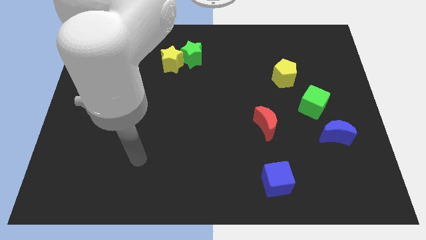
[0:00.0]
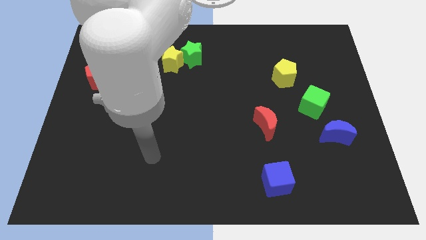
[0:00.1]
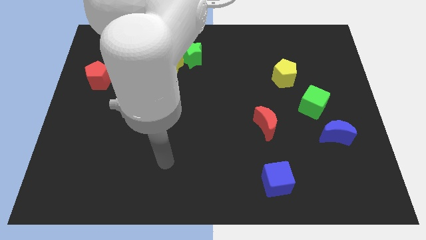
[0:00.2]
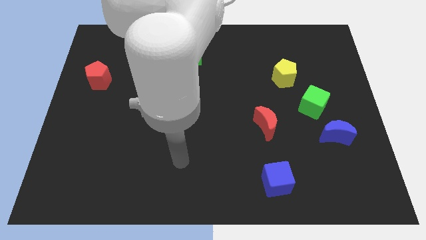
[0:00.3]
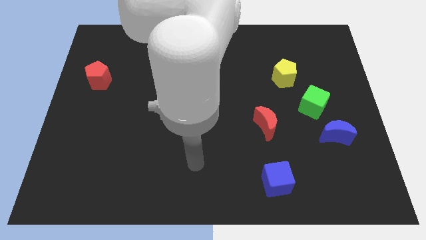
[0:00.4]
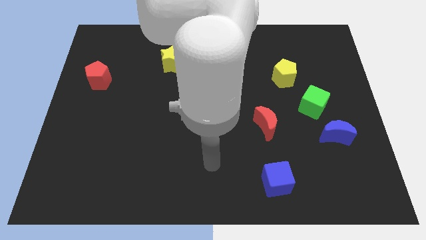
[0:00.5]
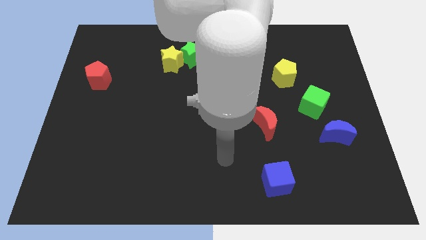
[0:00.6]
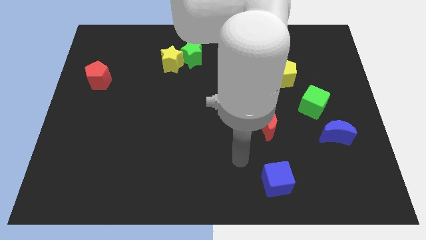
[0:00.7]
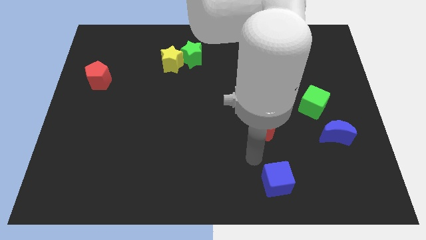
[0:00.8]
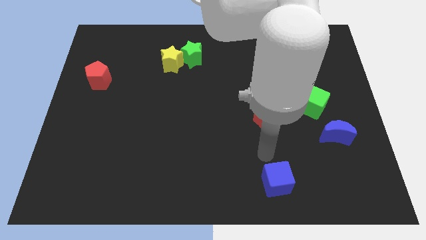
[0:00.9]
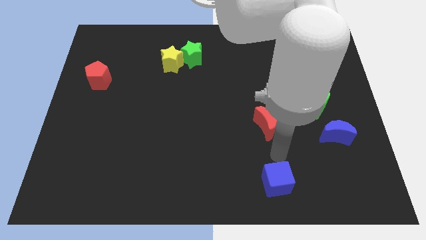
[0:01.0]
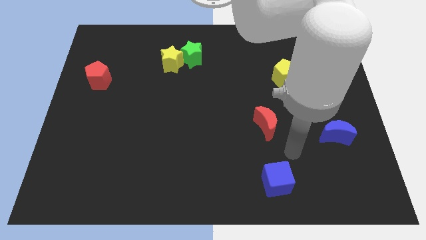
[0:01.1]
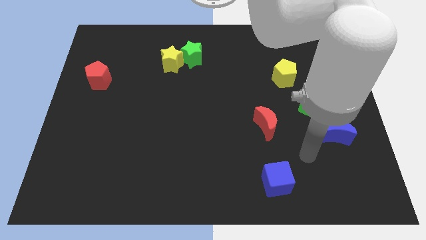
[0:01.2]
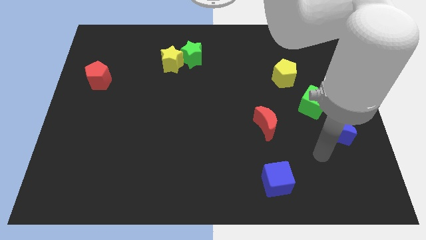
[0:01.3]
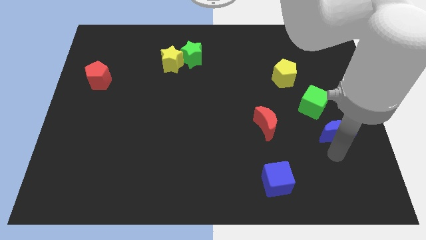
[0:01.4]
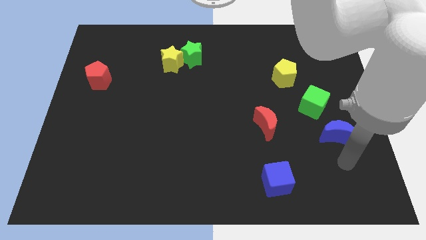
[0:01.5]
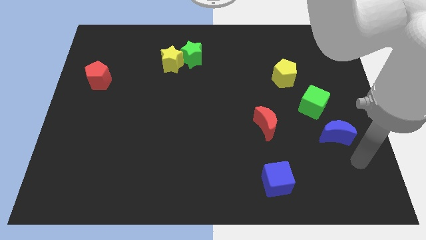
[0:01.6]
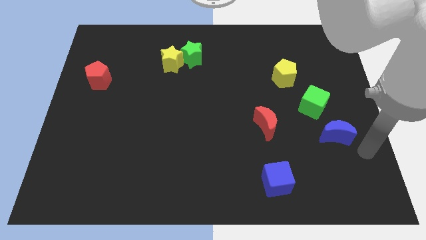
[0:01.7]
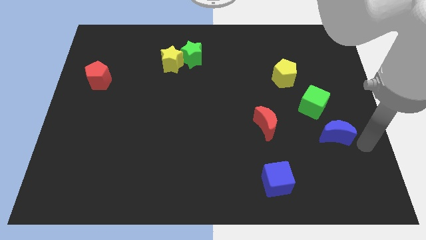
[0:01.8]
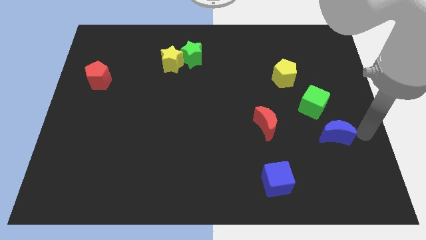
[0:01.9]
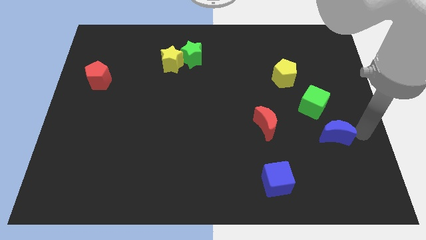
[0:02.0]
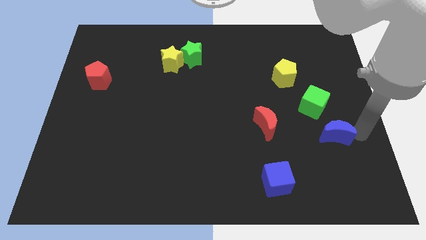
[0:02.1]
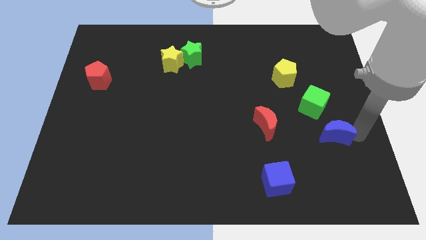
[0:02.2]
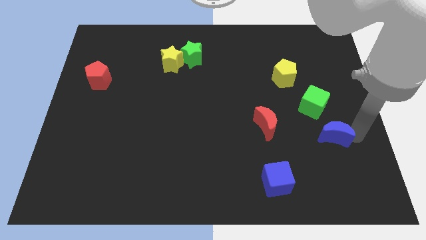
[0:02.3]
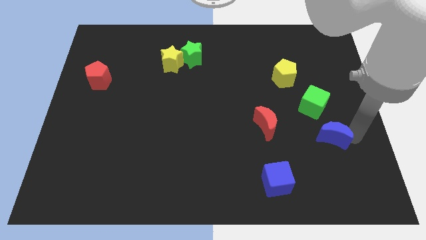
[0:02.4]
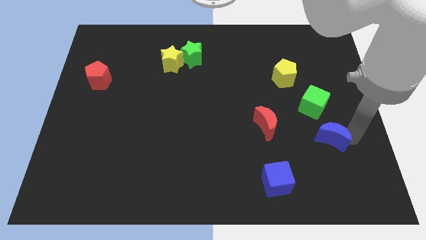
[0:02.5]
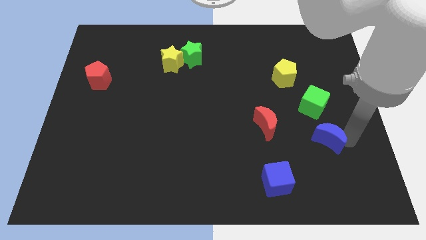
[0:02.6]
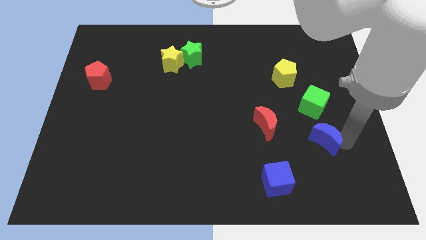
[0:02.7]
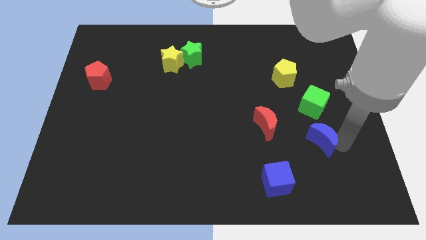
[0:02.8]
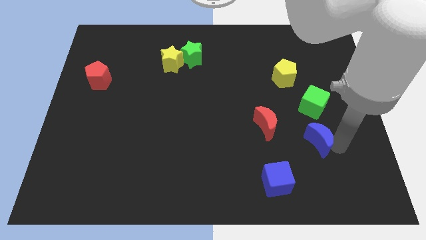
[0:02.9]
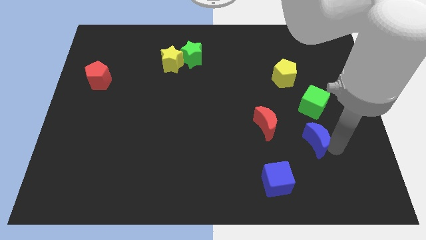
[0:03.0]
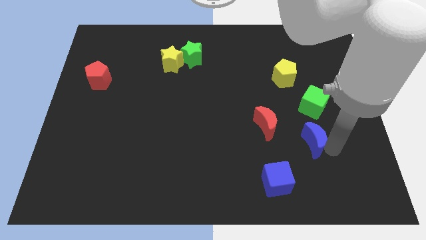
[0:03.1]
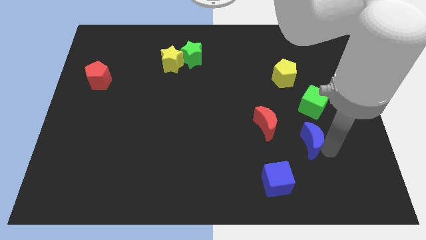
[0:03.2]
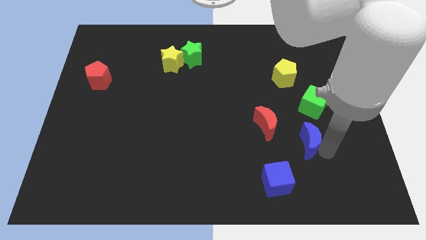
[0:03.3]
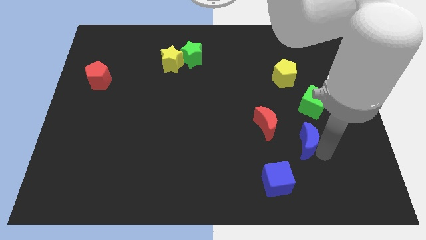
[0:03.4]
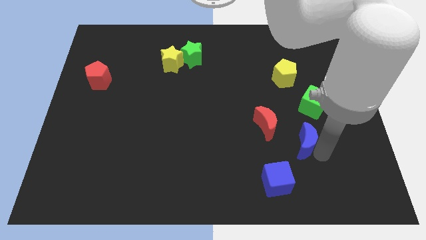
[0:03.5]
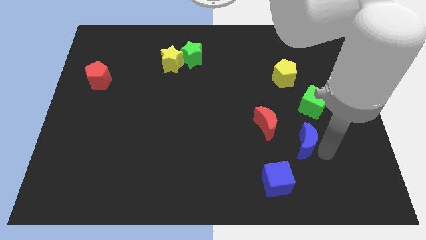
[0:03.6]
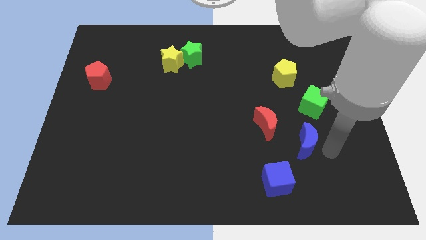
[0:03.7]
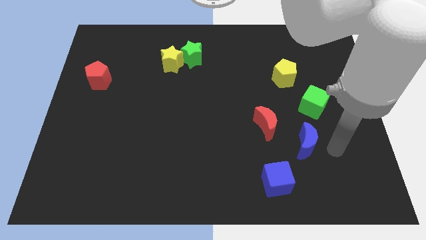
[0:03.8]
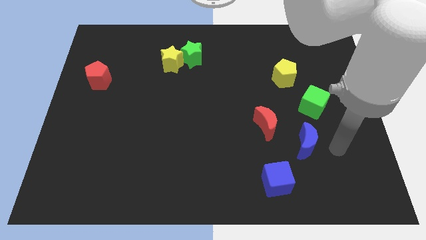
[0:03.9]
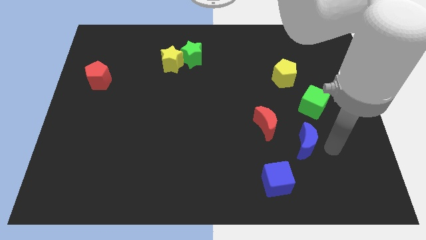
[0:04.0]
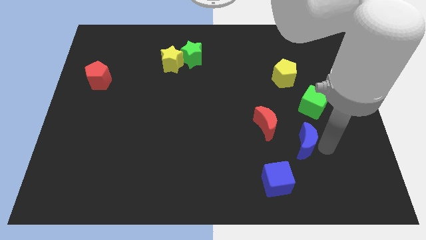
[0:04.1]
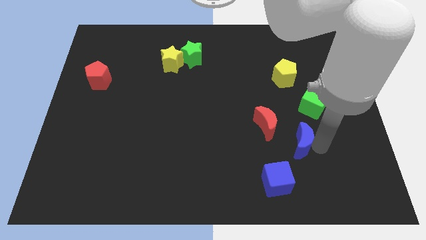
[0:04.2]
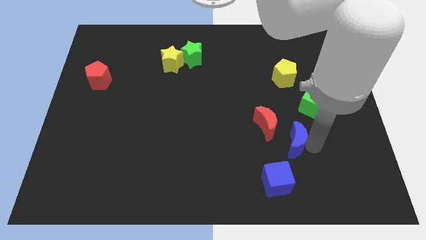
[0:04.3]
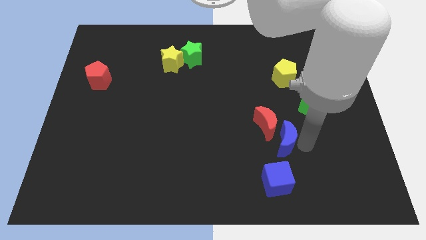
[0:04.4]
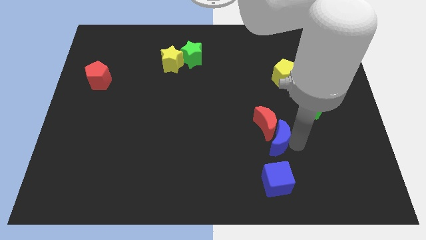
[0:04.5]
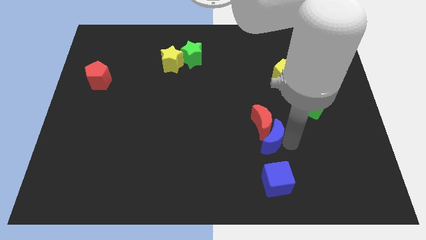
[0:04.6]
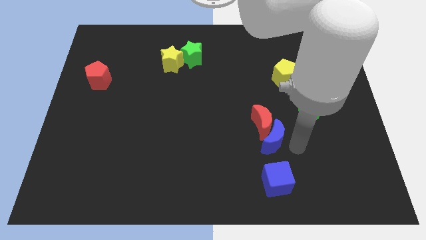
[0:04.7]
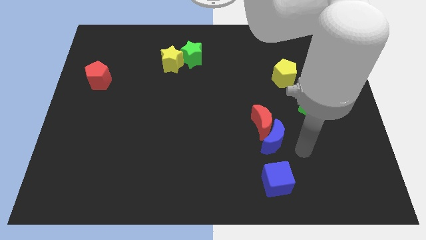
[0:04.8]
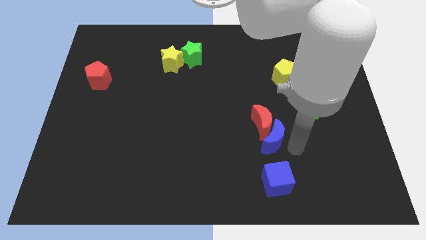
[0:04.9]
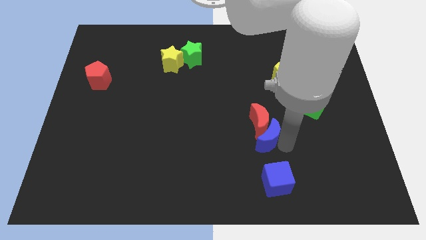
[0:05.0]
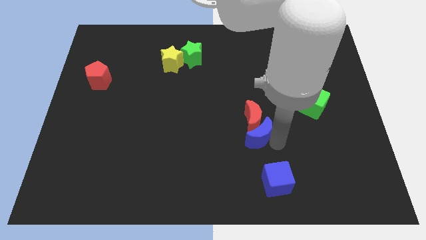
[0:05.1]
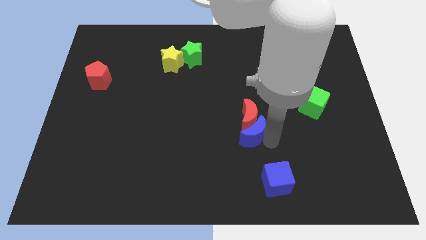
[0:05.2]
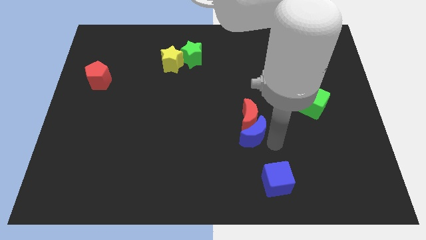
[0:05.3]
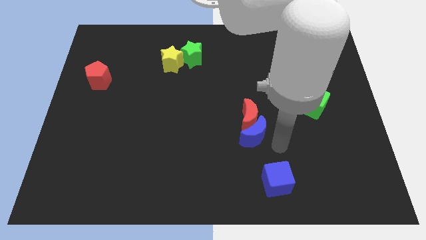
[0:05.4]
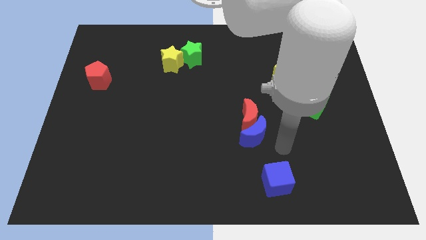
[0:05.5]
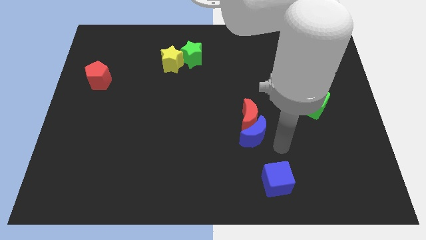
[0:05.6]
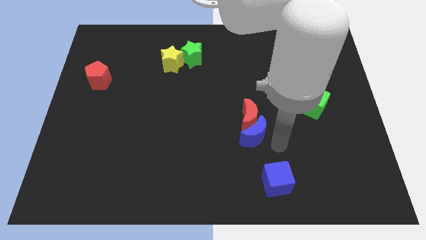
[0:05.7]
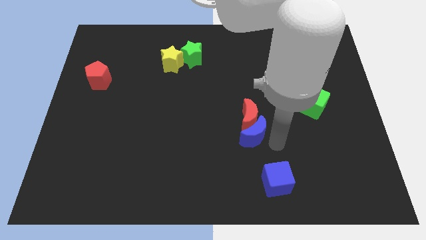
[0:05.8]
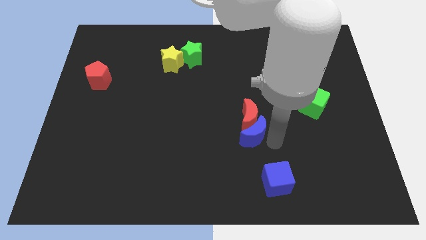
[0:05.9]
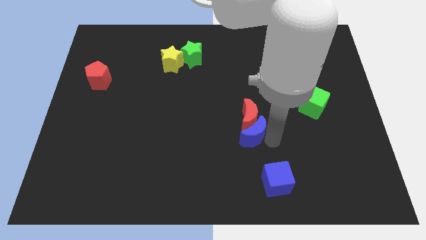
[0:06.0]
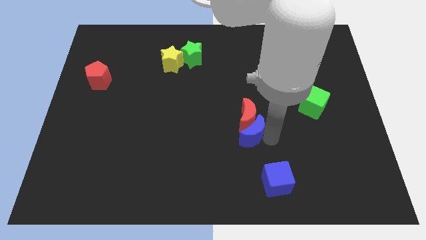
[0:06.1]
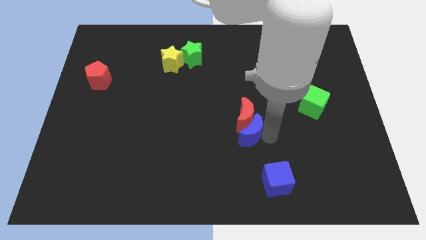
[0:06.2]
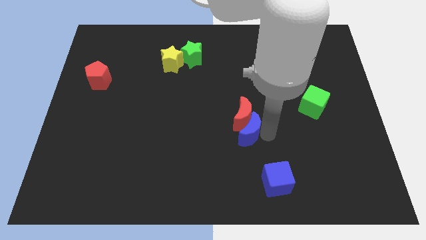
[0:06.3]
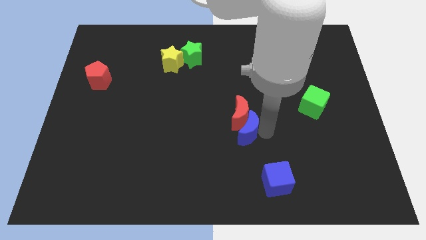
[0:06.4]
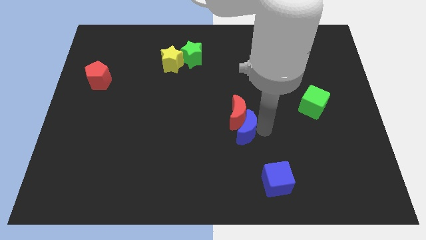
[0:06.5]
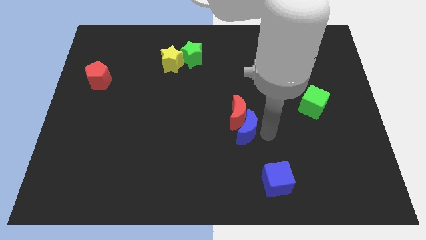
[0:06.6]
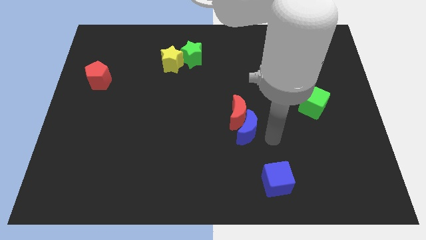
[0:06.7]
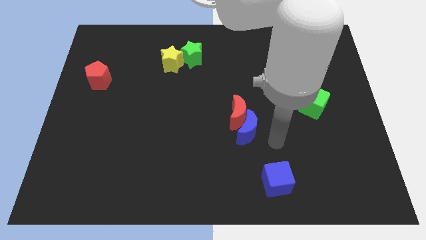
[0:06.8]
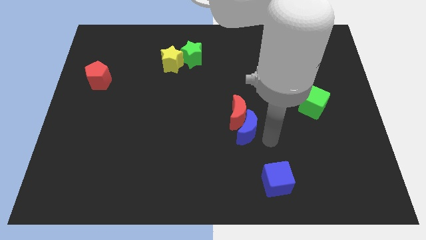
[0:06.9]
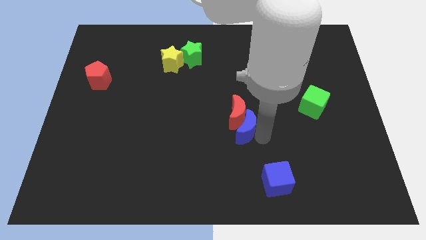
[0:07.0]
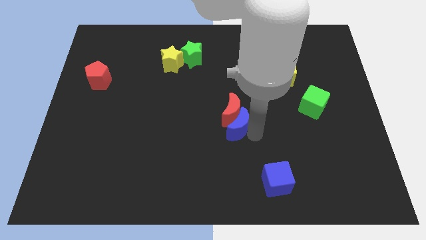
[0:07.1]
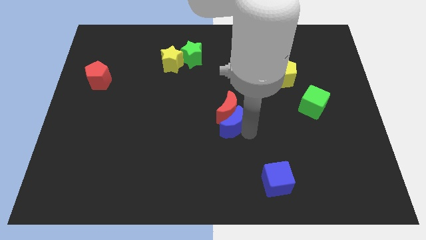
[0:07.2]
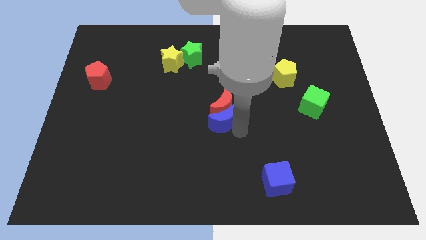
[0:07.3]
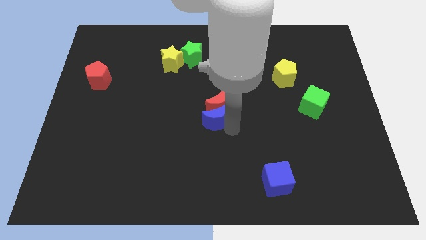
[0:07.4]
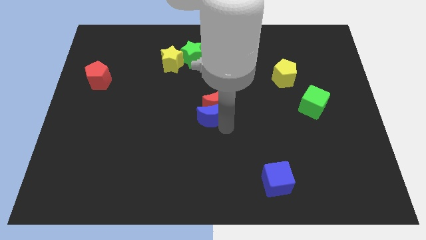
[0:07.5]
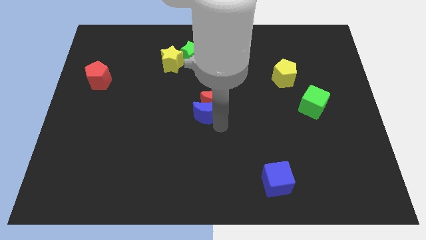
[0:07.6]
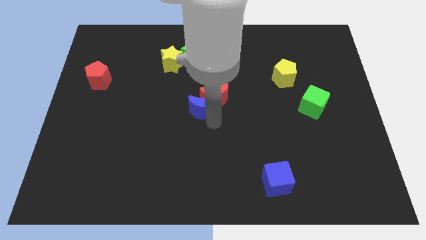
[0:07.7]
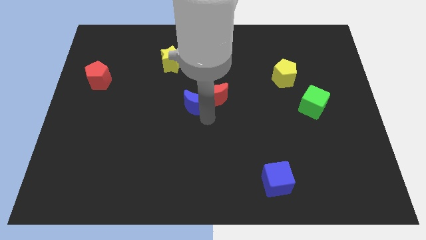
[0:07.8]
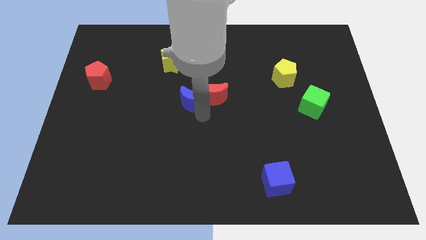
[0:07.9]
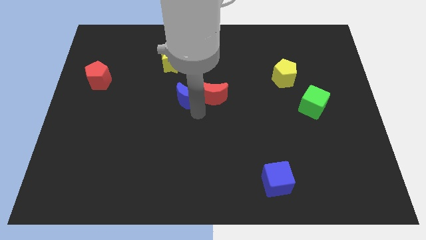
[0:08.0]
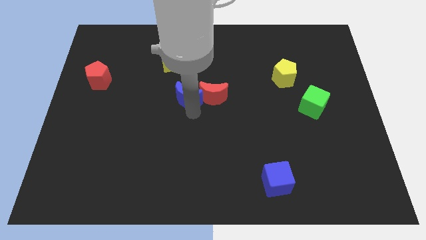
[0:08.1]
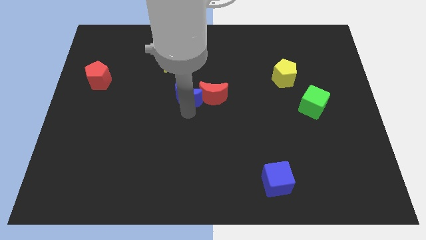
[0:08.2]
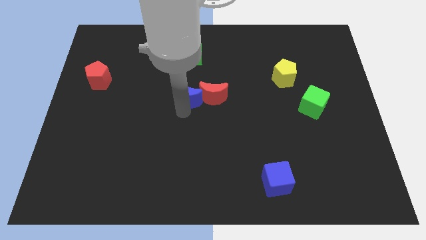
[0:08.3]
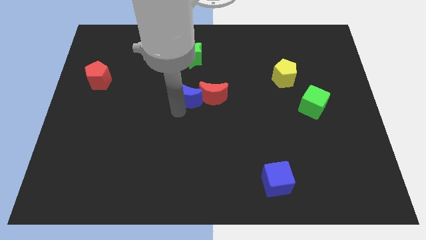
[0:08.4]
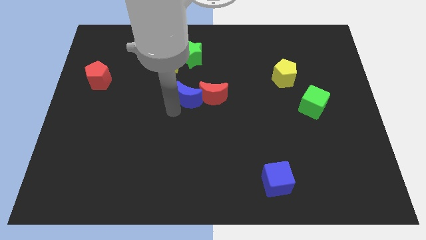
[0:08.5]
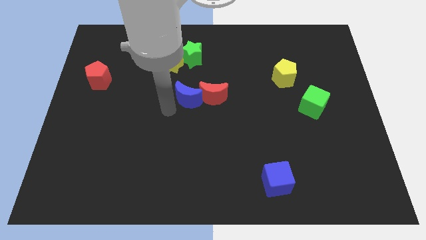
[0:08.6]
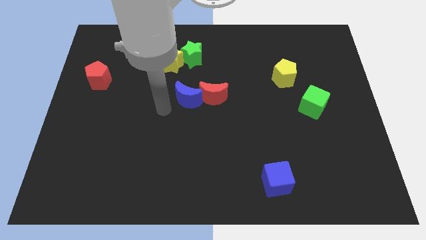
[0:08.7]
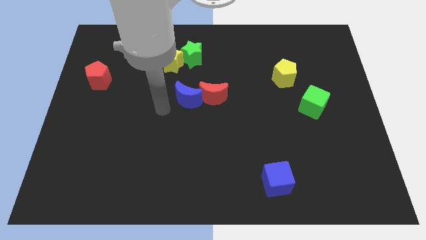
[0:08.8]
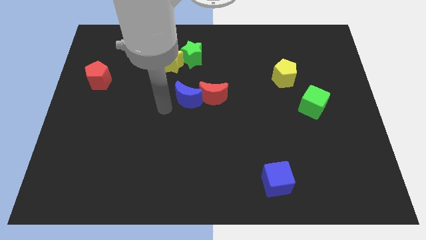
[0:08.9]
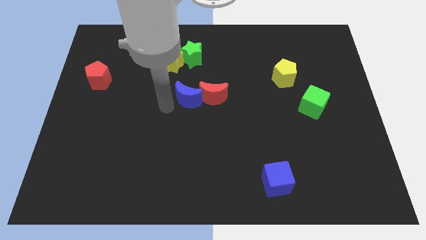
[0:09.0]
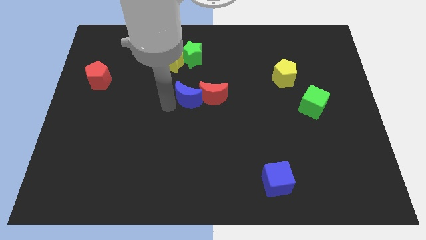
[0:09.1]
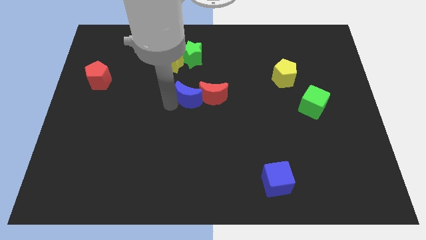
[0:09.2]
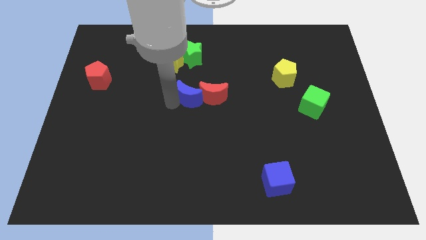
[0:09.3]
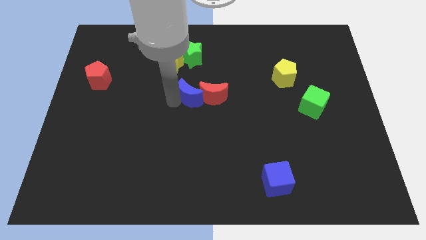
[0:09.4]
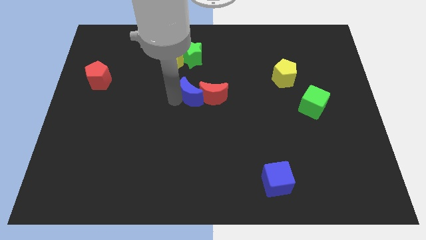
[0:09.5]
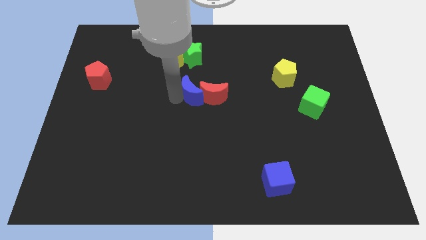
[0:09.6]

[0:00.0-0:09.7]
push the blue moon to the bottom right of the yellow star
